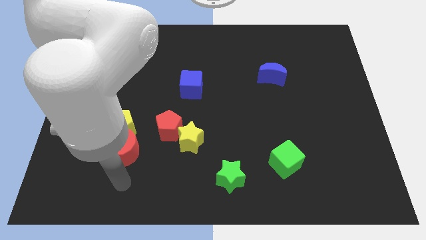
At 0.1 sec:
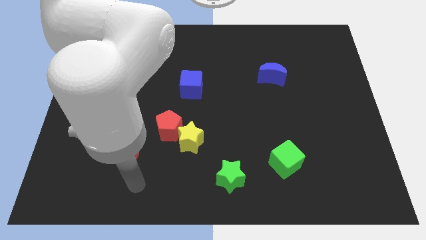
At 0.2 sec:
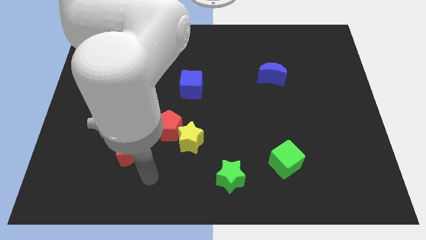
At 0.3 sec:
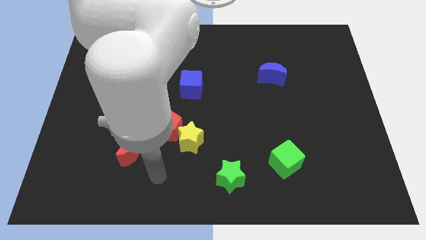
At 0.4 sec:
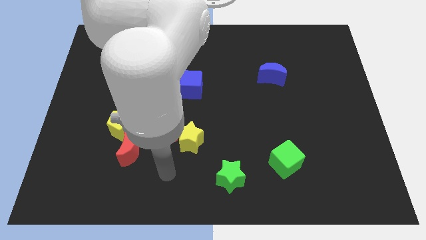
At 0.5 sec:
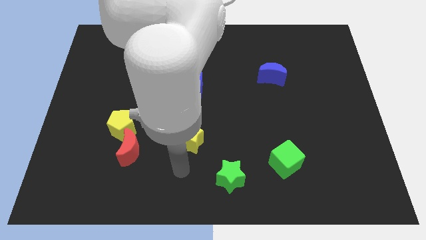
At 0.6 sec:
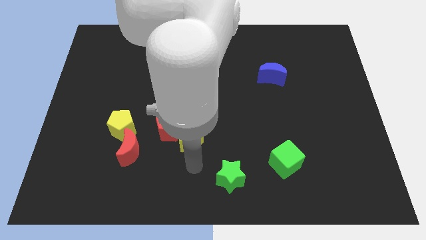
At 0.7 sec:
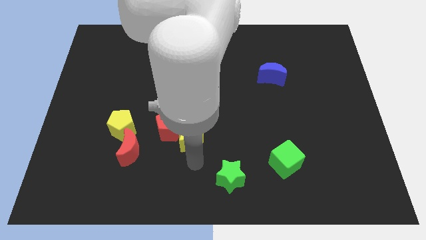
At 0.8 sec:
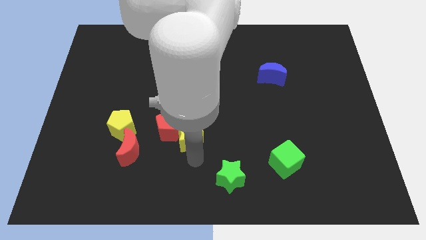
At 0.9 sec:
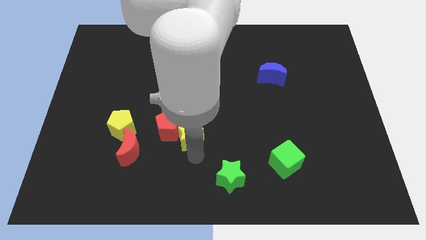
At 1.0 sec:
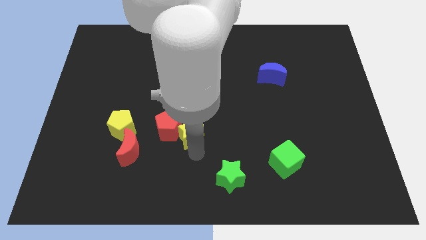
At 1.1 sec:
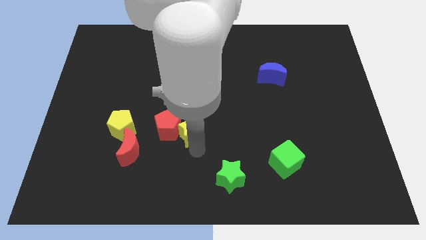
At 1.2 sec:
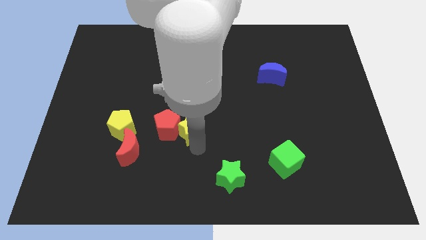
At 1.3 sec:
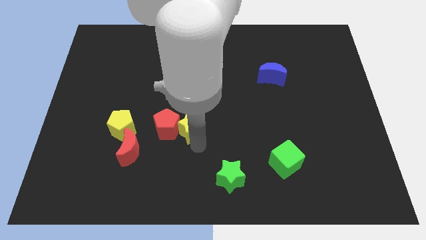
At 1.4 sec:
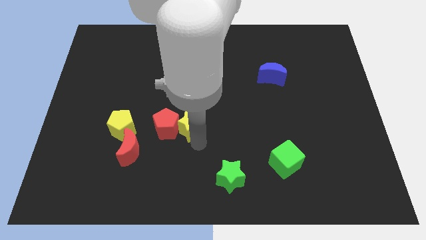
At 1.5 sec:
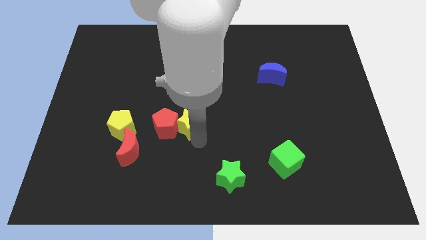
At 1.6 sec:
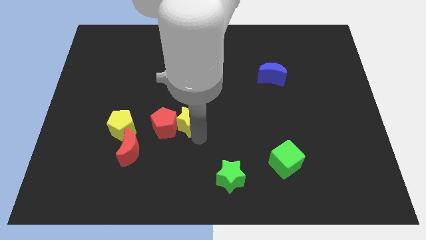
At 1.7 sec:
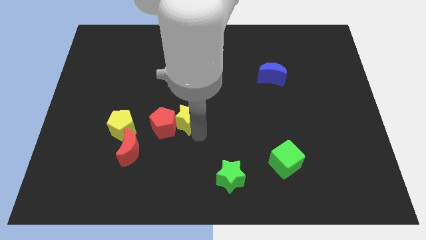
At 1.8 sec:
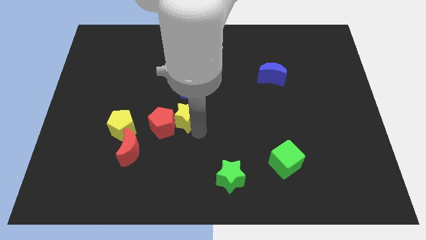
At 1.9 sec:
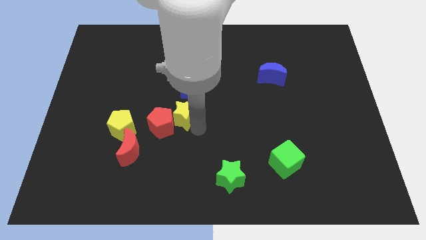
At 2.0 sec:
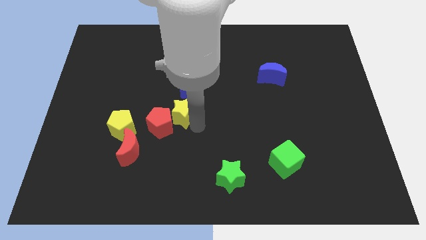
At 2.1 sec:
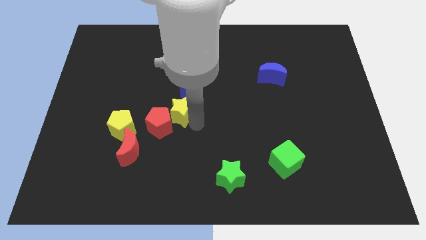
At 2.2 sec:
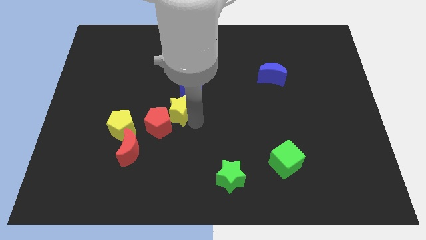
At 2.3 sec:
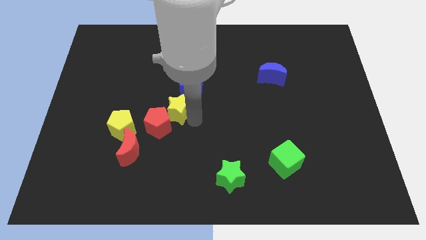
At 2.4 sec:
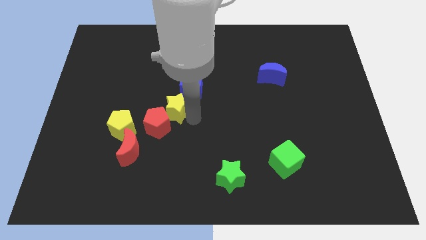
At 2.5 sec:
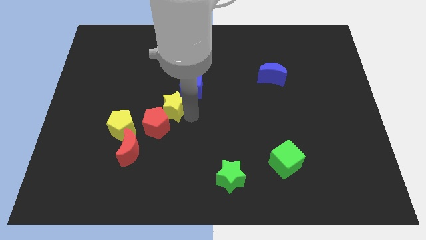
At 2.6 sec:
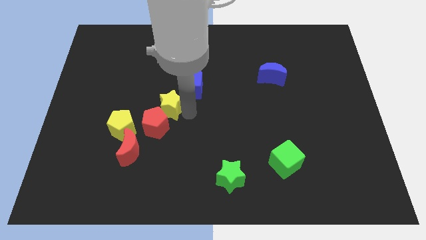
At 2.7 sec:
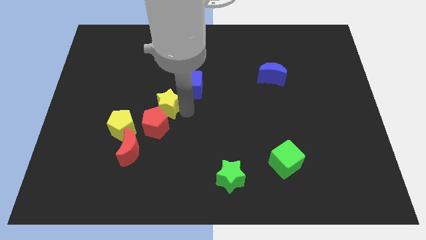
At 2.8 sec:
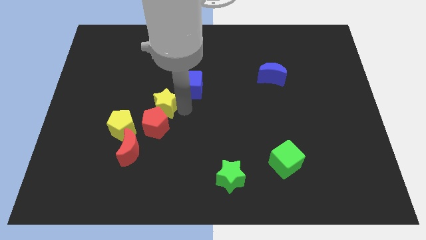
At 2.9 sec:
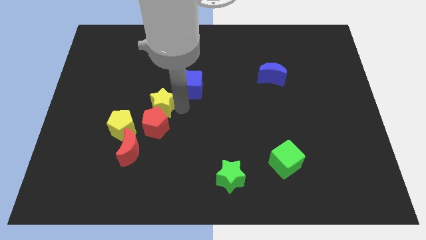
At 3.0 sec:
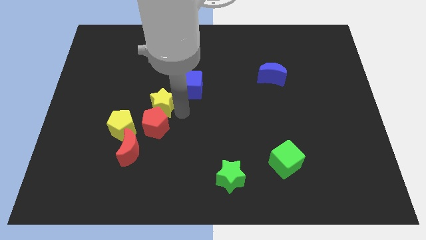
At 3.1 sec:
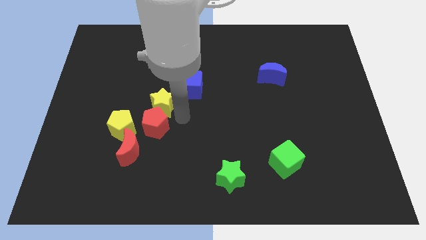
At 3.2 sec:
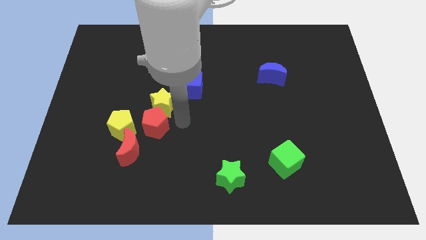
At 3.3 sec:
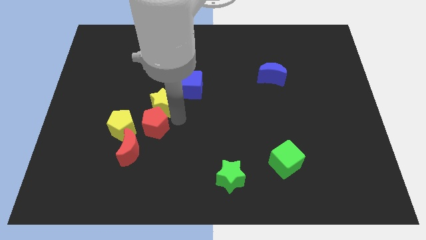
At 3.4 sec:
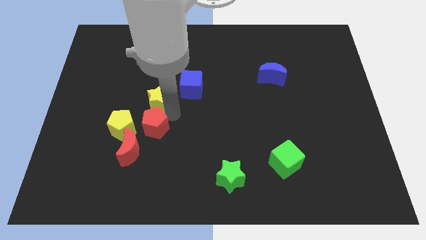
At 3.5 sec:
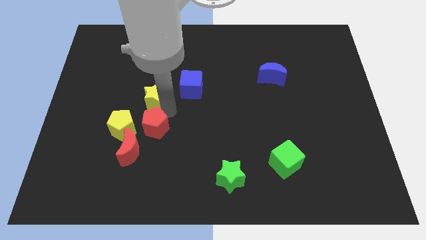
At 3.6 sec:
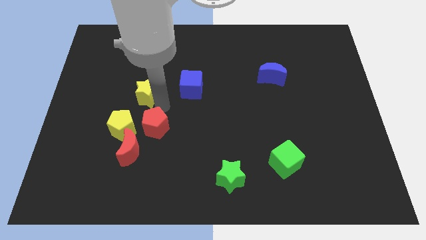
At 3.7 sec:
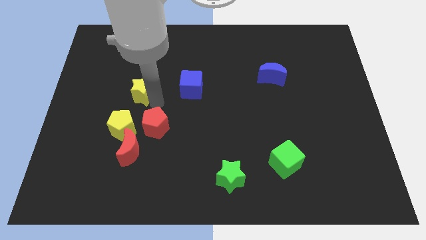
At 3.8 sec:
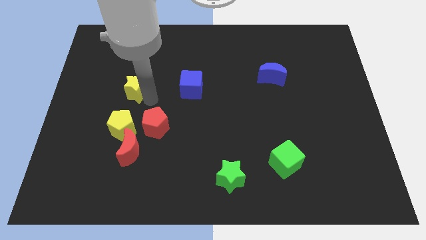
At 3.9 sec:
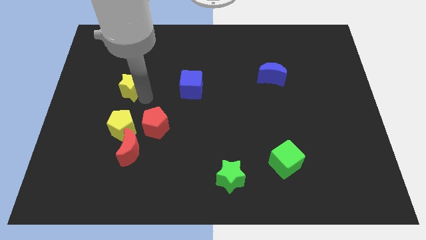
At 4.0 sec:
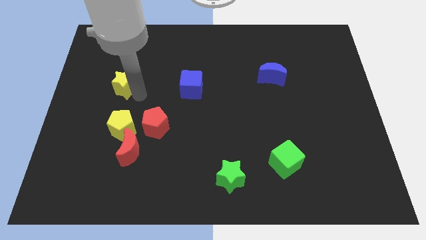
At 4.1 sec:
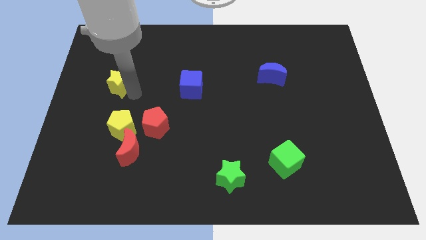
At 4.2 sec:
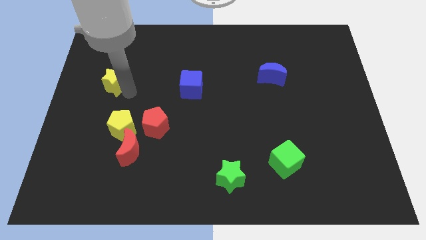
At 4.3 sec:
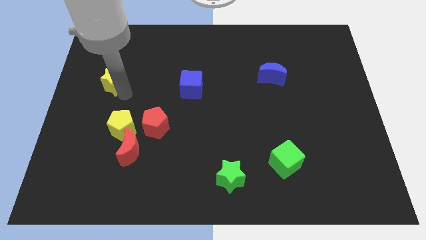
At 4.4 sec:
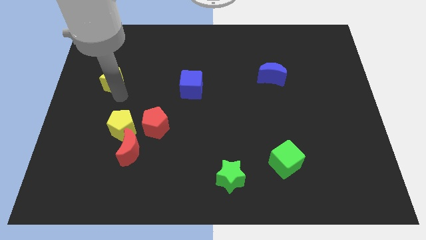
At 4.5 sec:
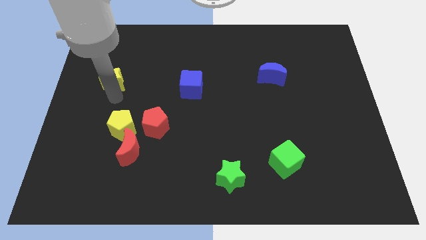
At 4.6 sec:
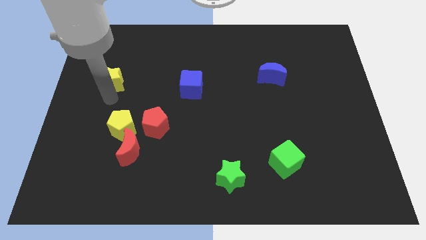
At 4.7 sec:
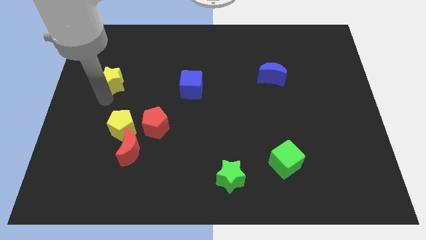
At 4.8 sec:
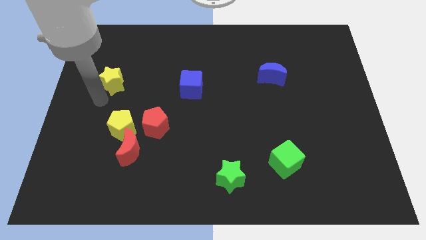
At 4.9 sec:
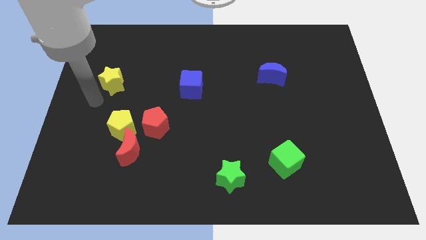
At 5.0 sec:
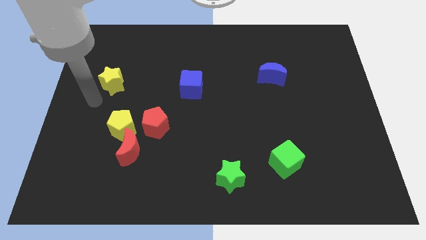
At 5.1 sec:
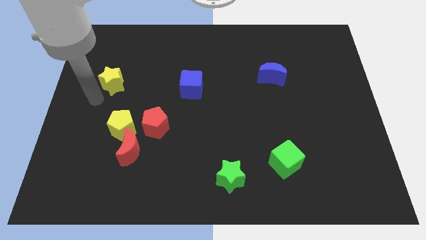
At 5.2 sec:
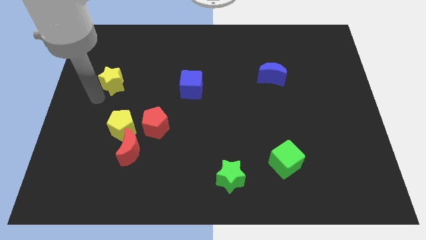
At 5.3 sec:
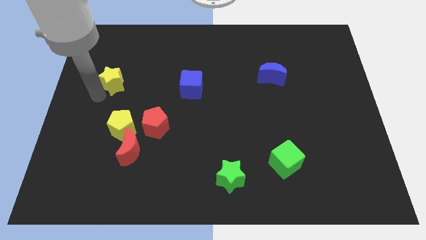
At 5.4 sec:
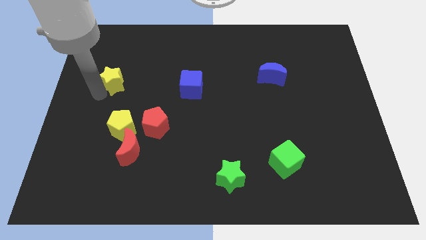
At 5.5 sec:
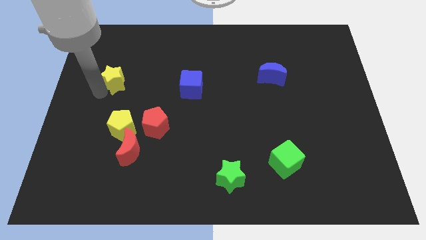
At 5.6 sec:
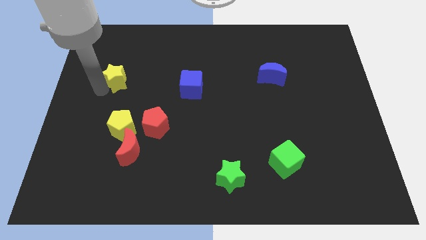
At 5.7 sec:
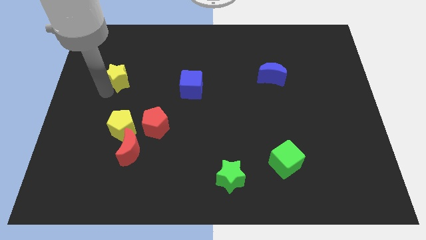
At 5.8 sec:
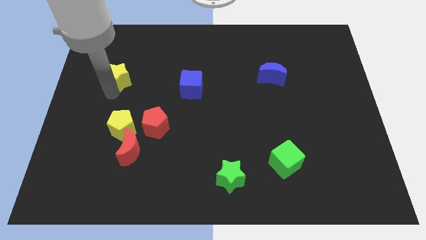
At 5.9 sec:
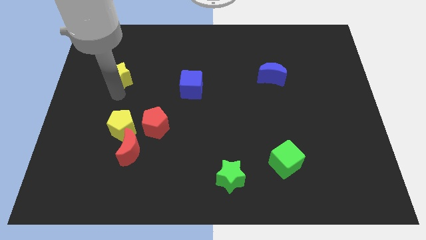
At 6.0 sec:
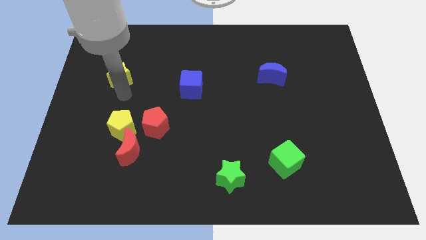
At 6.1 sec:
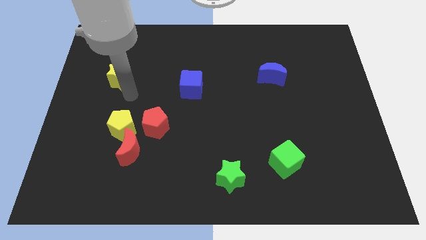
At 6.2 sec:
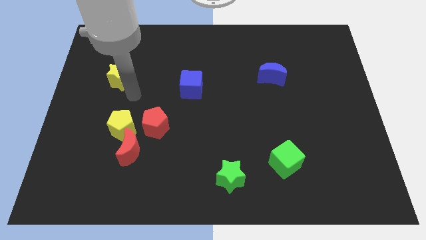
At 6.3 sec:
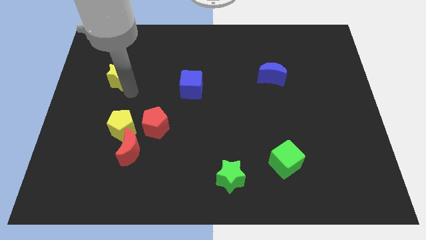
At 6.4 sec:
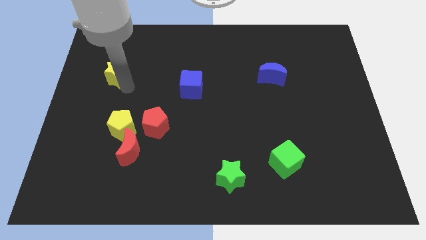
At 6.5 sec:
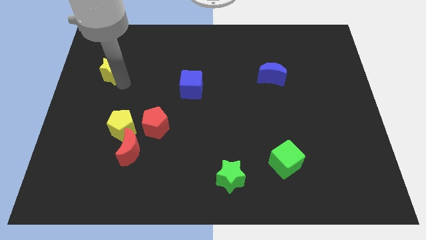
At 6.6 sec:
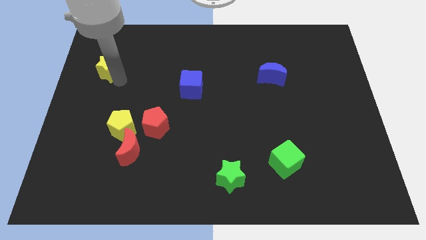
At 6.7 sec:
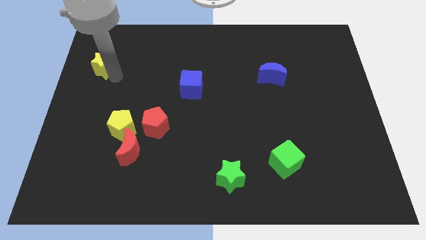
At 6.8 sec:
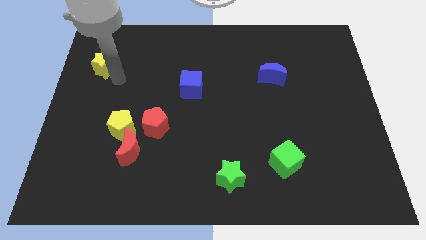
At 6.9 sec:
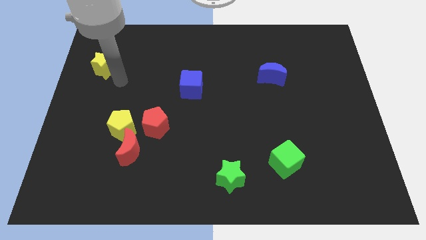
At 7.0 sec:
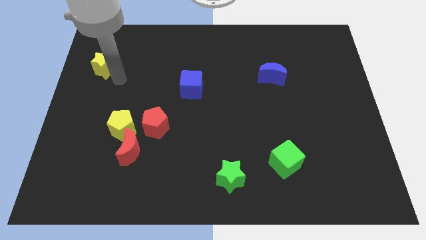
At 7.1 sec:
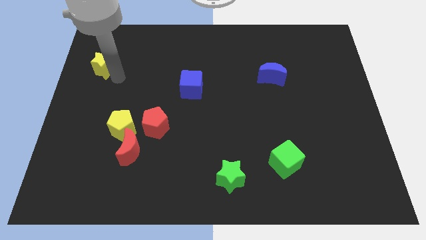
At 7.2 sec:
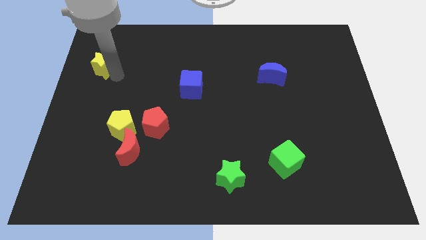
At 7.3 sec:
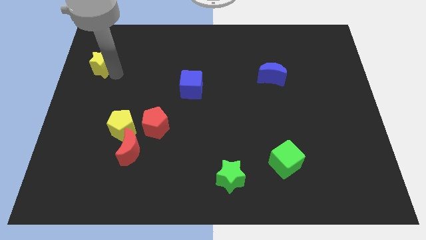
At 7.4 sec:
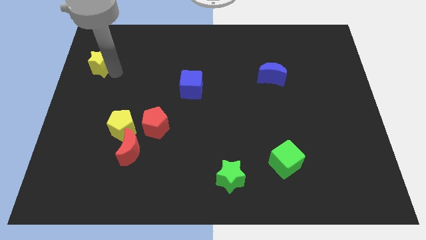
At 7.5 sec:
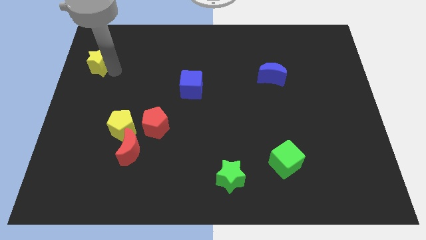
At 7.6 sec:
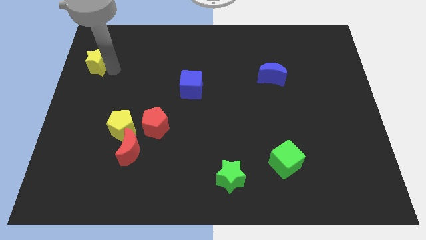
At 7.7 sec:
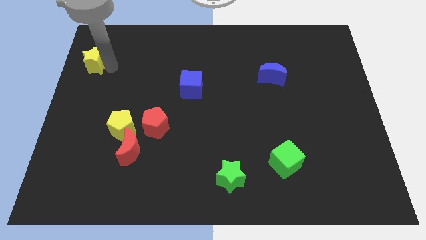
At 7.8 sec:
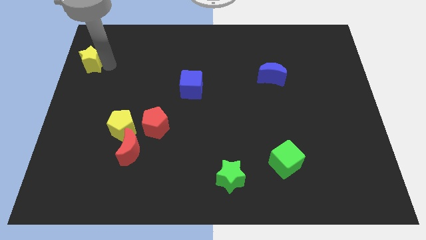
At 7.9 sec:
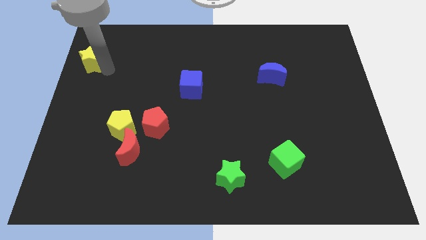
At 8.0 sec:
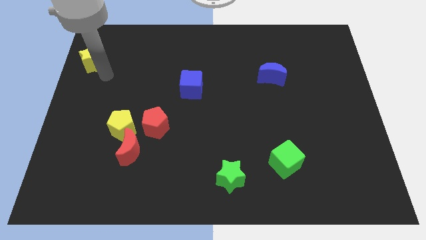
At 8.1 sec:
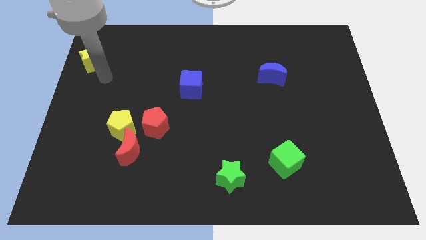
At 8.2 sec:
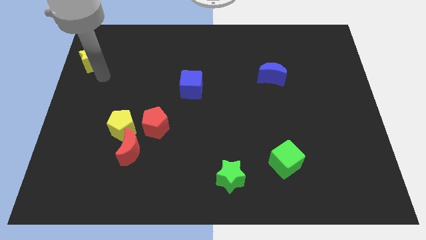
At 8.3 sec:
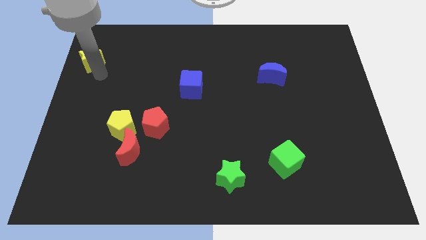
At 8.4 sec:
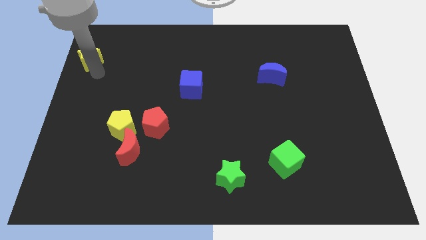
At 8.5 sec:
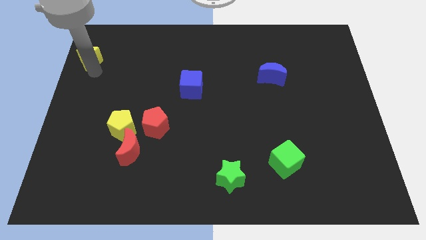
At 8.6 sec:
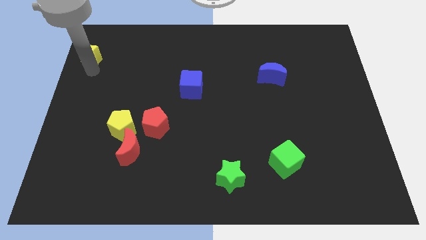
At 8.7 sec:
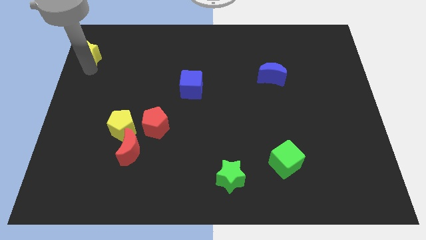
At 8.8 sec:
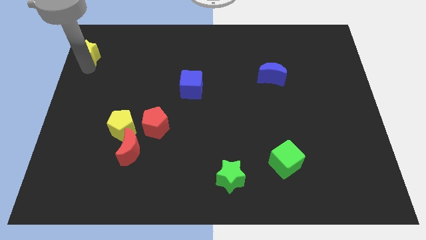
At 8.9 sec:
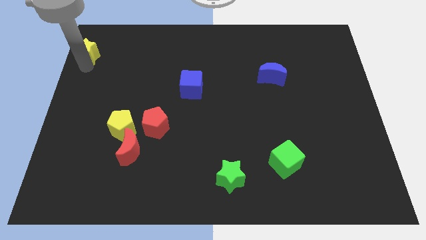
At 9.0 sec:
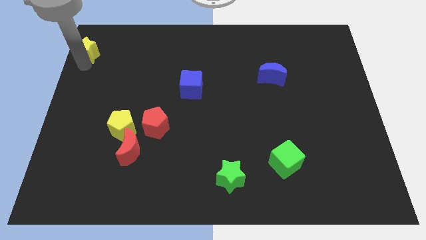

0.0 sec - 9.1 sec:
move the yellow star to the top left corner
